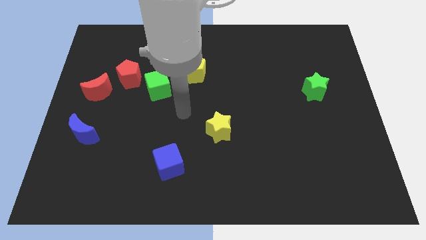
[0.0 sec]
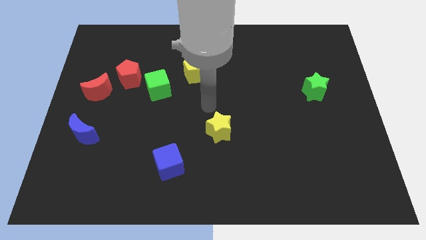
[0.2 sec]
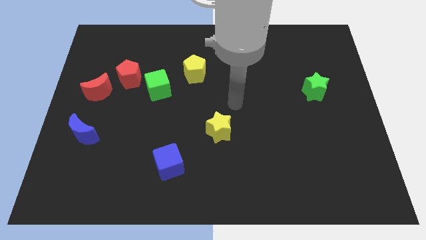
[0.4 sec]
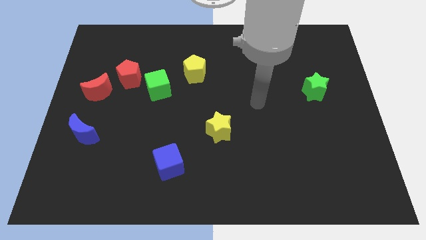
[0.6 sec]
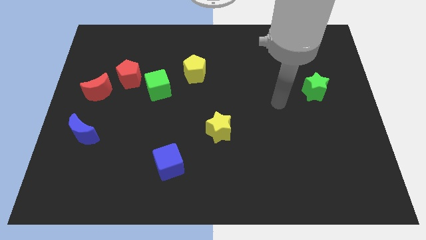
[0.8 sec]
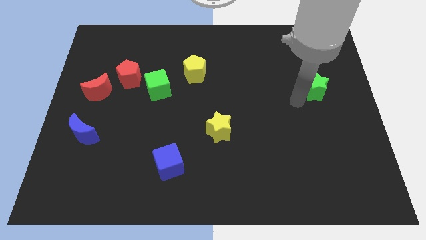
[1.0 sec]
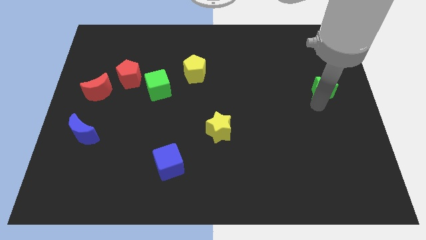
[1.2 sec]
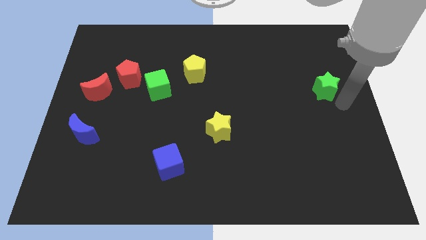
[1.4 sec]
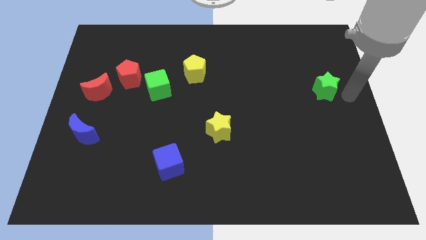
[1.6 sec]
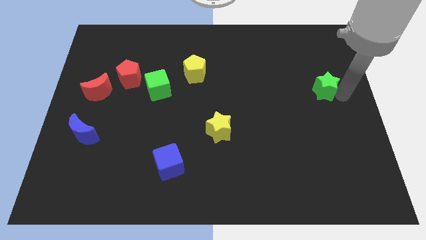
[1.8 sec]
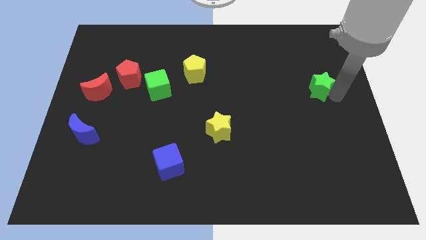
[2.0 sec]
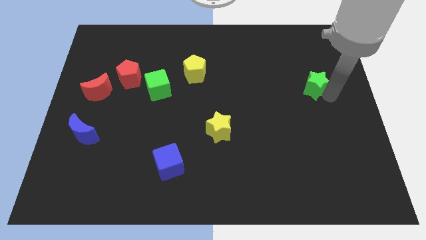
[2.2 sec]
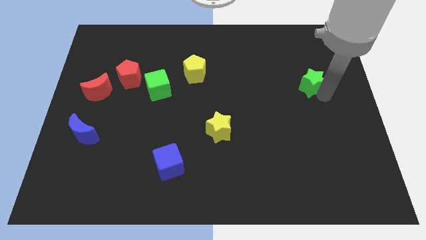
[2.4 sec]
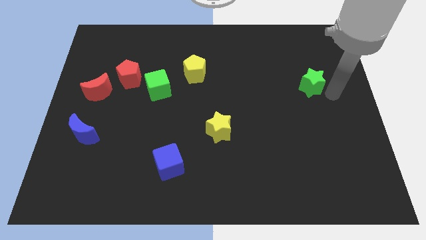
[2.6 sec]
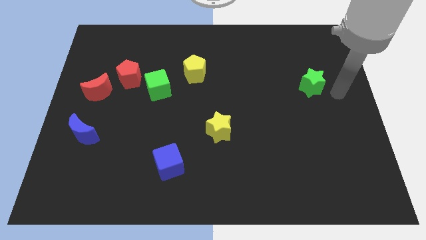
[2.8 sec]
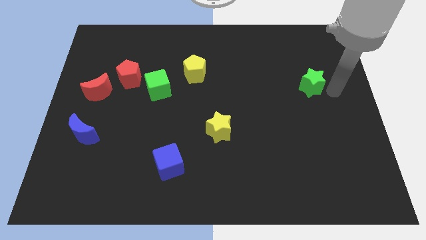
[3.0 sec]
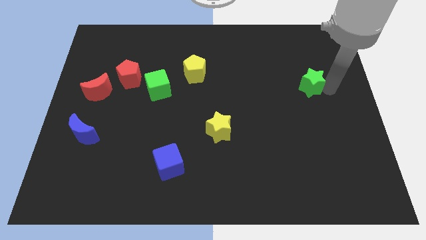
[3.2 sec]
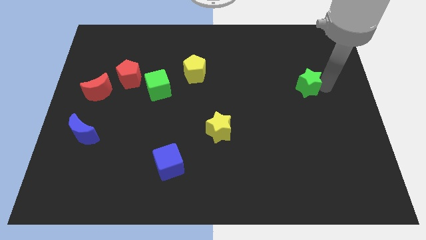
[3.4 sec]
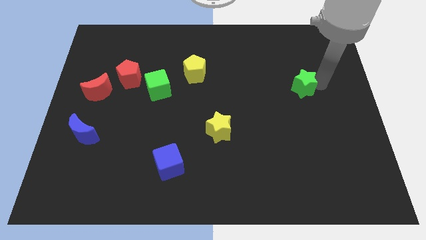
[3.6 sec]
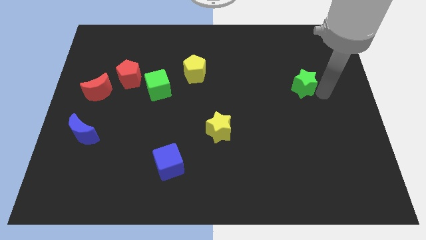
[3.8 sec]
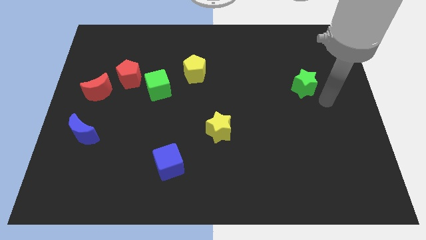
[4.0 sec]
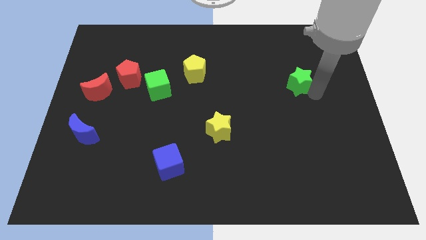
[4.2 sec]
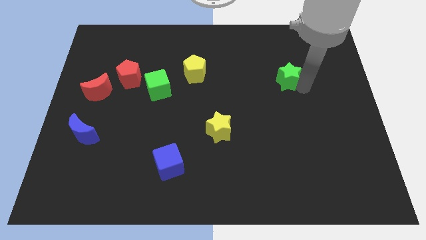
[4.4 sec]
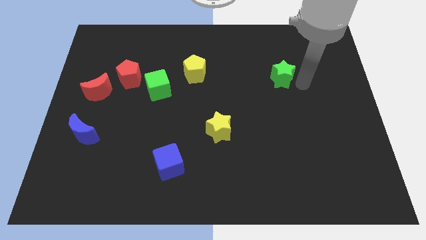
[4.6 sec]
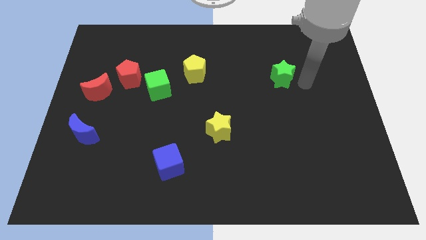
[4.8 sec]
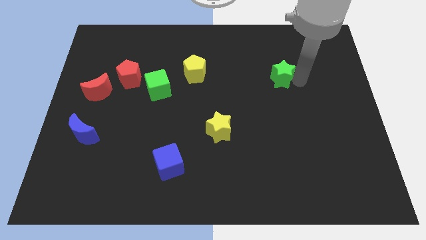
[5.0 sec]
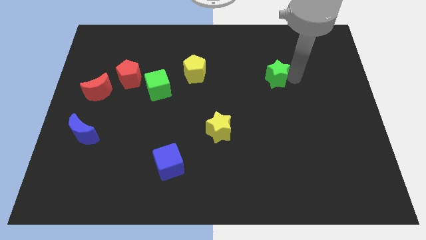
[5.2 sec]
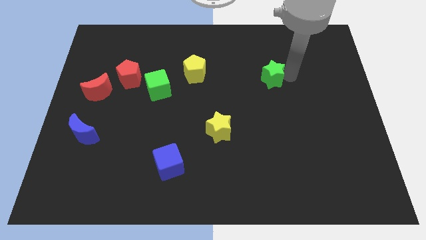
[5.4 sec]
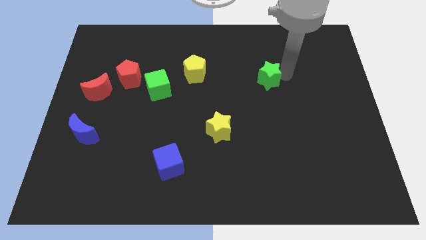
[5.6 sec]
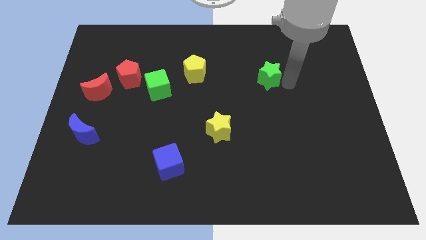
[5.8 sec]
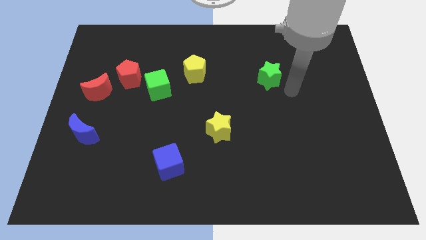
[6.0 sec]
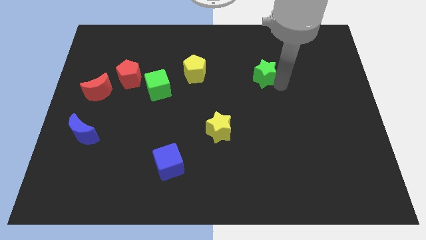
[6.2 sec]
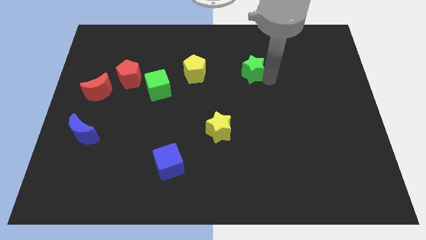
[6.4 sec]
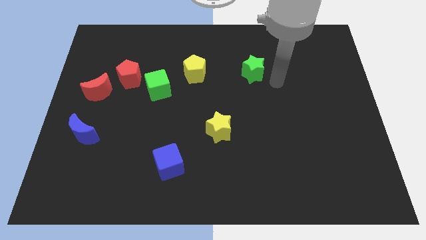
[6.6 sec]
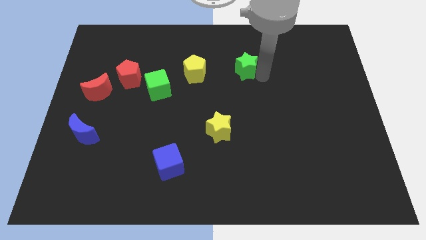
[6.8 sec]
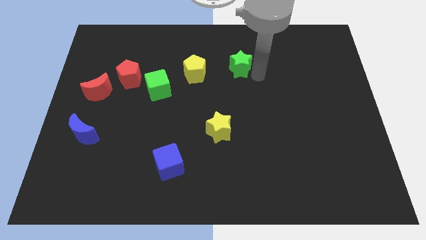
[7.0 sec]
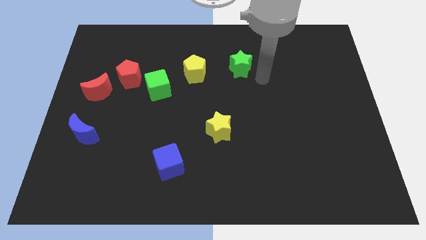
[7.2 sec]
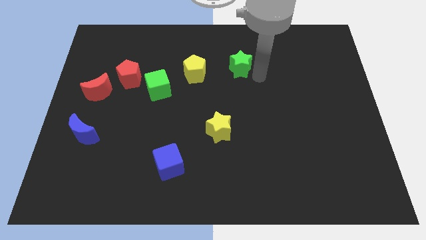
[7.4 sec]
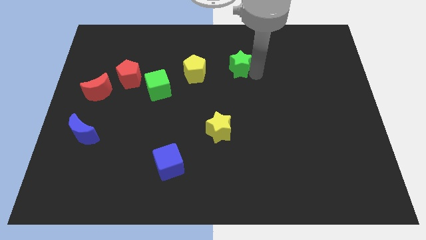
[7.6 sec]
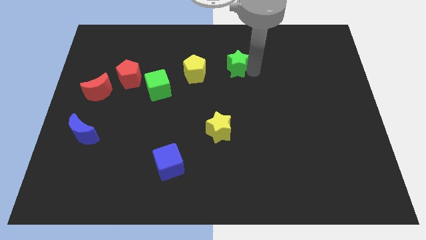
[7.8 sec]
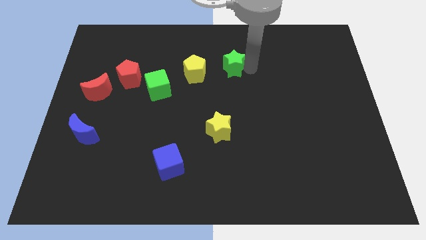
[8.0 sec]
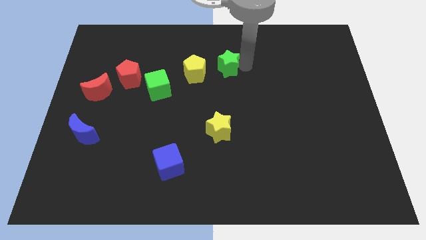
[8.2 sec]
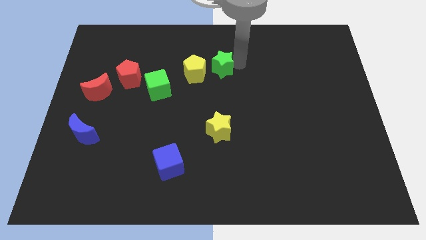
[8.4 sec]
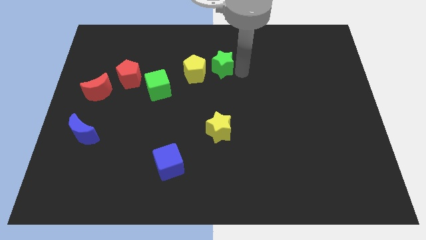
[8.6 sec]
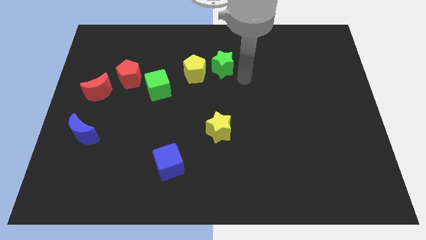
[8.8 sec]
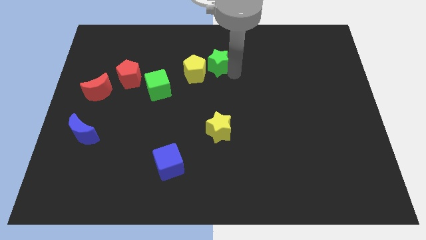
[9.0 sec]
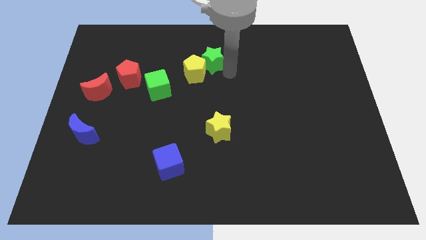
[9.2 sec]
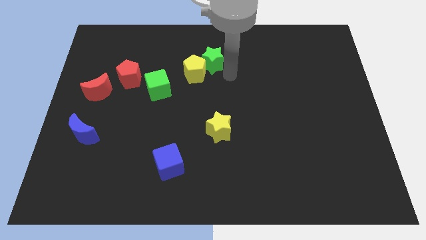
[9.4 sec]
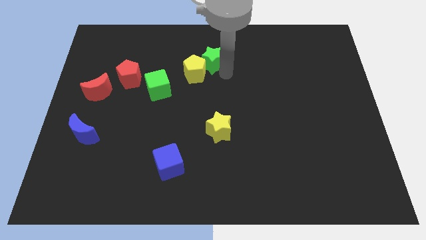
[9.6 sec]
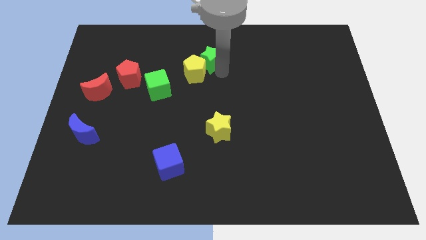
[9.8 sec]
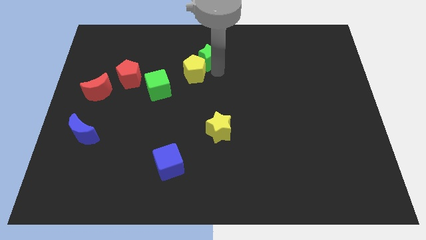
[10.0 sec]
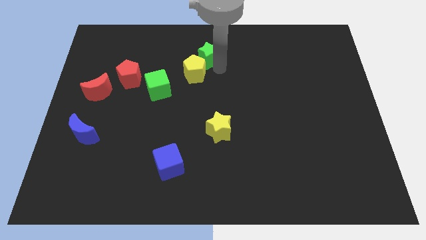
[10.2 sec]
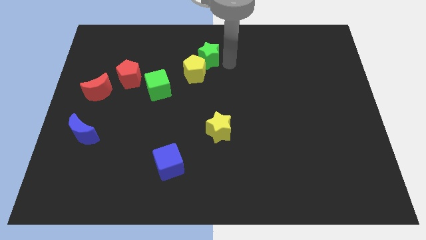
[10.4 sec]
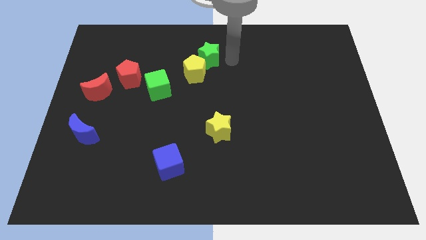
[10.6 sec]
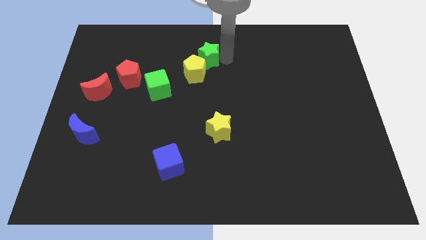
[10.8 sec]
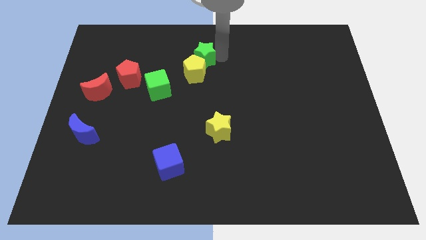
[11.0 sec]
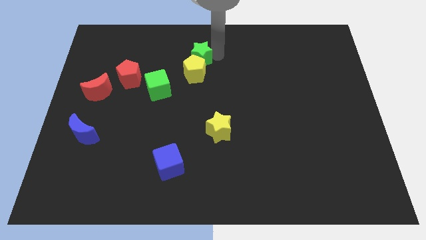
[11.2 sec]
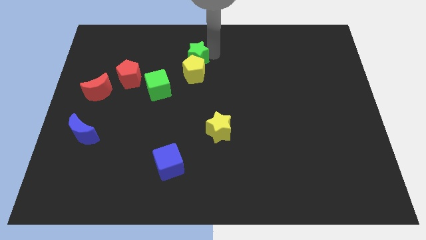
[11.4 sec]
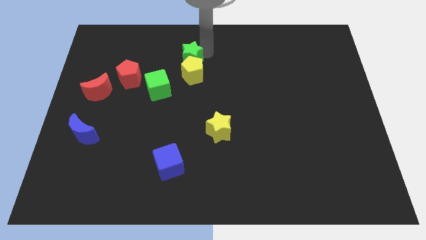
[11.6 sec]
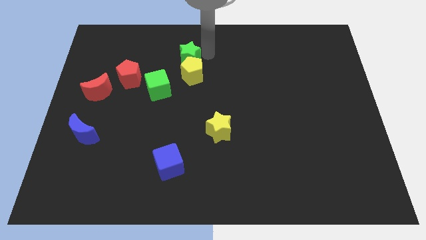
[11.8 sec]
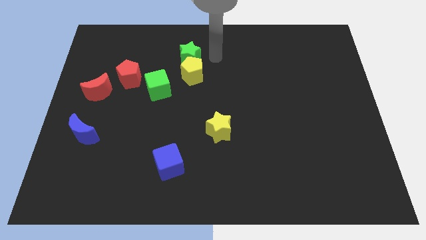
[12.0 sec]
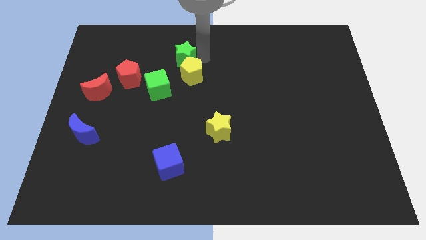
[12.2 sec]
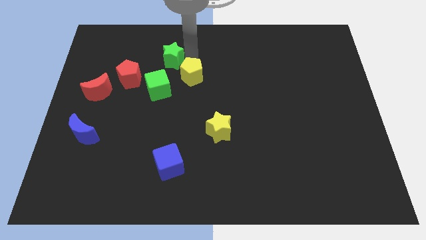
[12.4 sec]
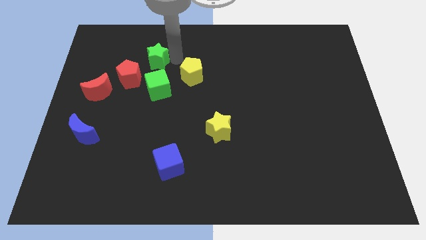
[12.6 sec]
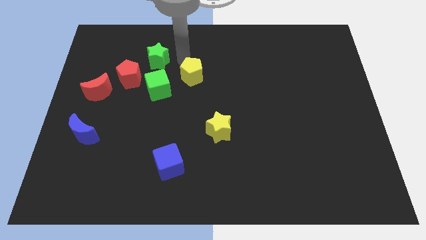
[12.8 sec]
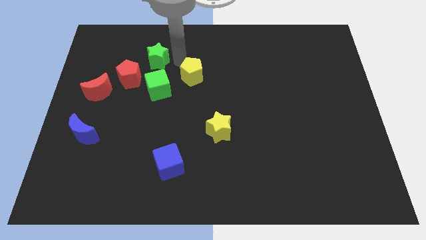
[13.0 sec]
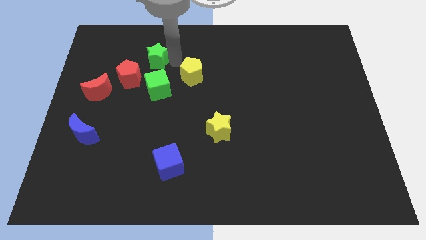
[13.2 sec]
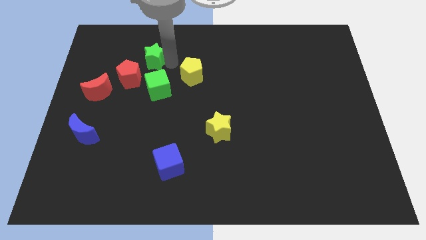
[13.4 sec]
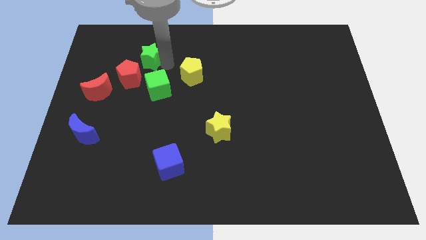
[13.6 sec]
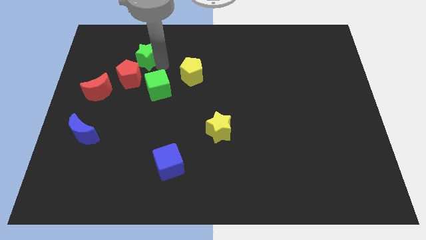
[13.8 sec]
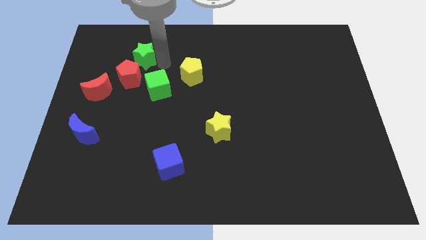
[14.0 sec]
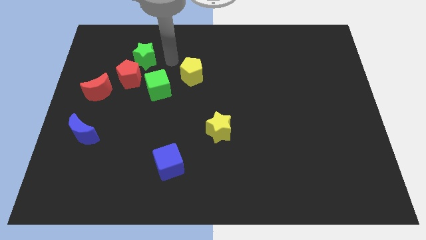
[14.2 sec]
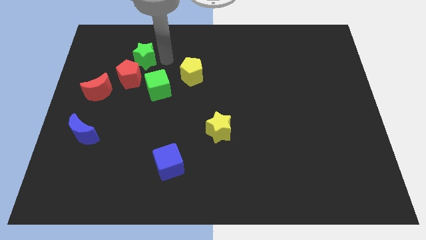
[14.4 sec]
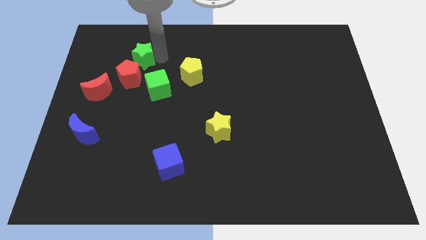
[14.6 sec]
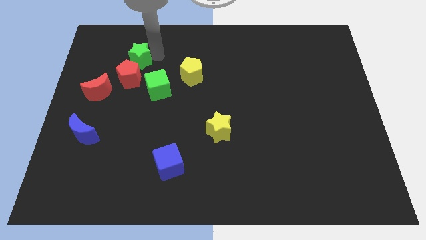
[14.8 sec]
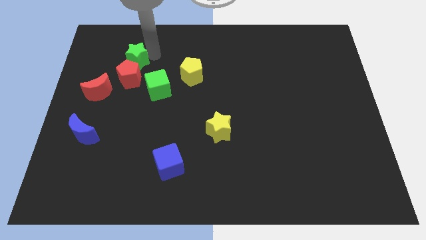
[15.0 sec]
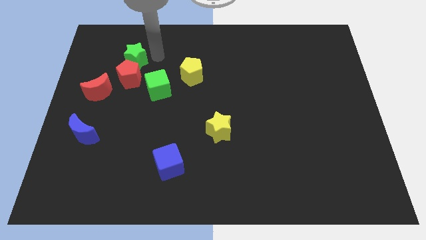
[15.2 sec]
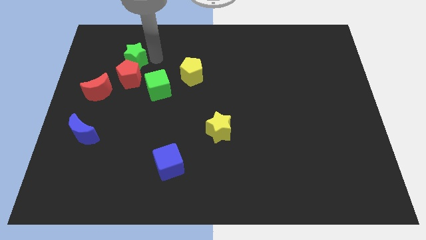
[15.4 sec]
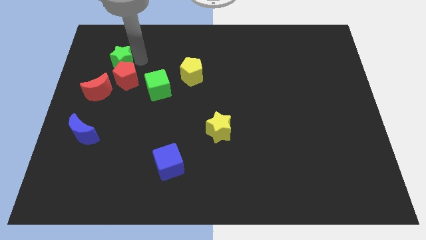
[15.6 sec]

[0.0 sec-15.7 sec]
push the green star to the top of the red moon
